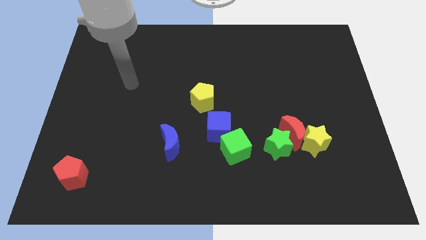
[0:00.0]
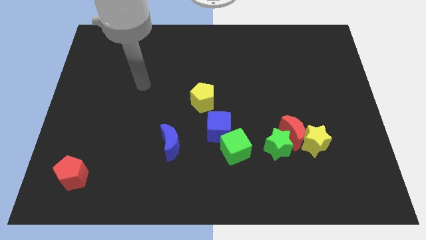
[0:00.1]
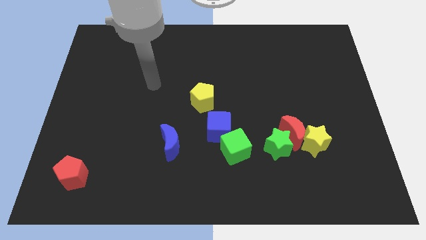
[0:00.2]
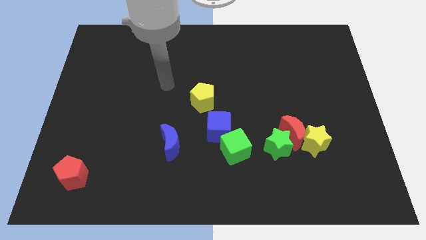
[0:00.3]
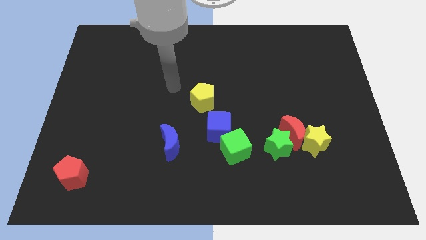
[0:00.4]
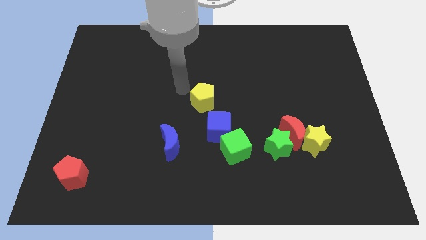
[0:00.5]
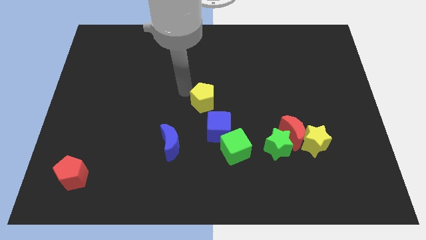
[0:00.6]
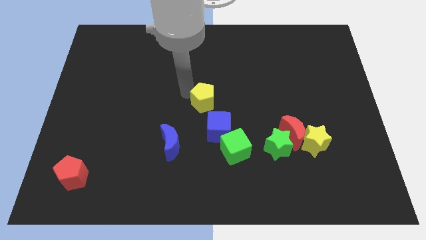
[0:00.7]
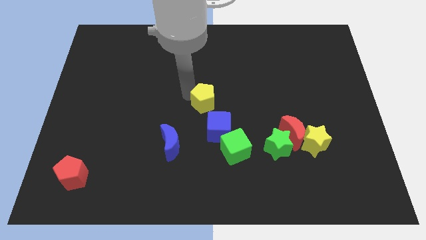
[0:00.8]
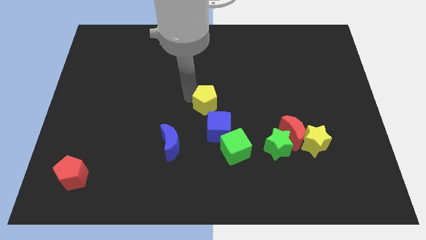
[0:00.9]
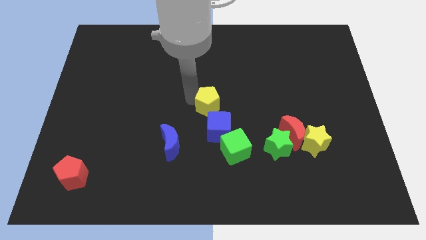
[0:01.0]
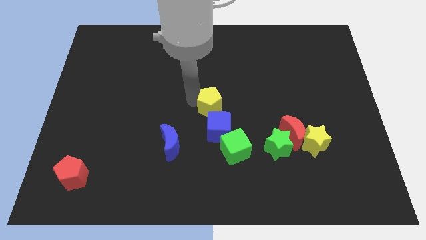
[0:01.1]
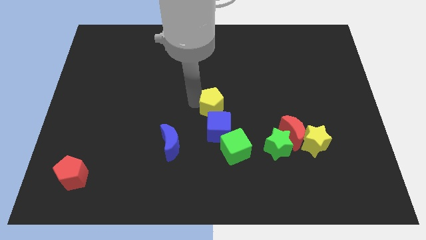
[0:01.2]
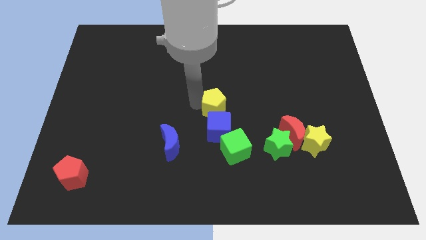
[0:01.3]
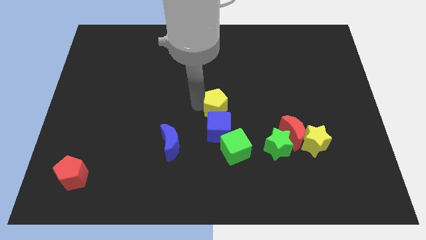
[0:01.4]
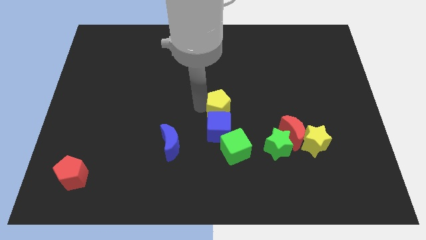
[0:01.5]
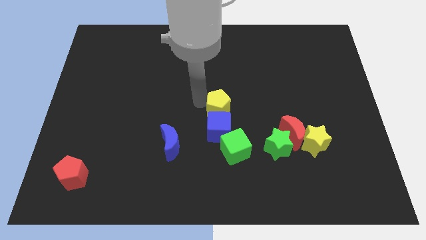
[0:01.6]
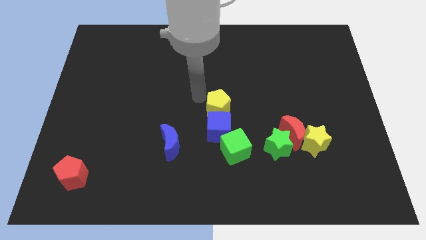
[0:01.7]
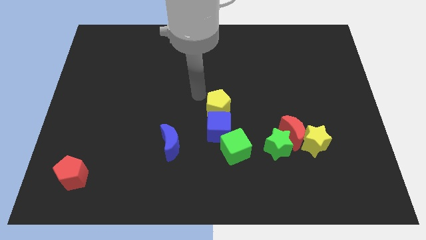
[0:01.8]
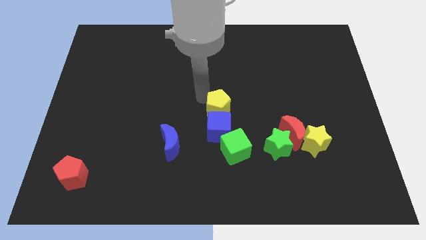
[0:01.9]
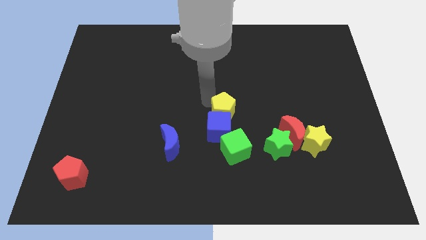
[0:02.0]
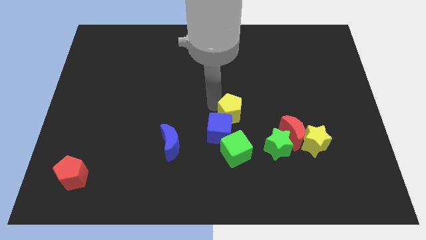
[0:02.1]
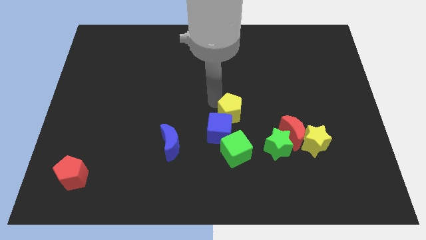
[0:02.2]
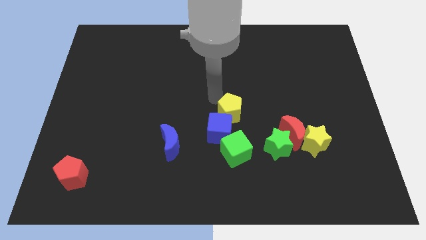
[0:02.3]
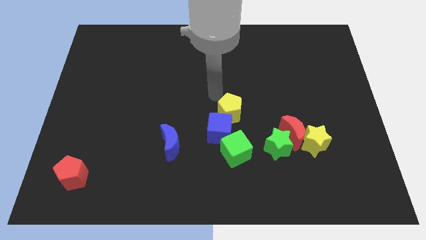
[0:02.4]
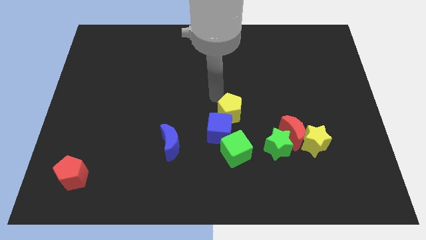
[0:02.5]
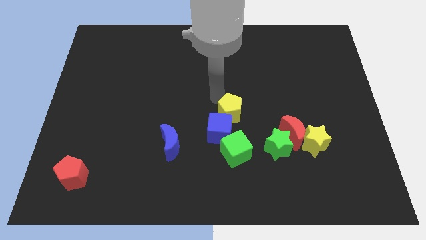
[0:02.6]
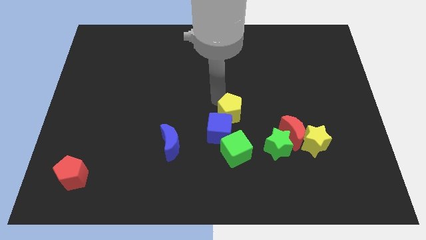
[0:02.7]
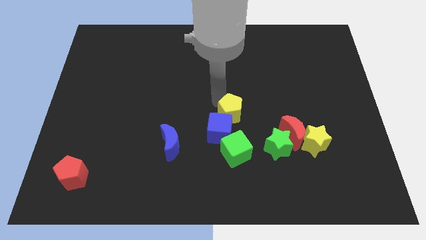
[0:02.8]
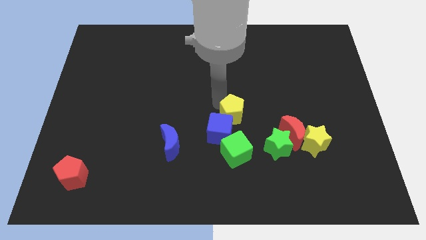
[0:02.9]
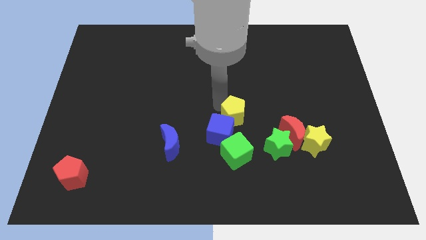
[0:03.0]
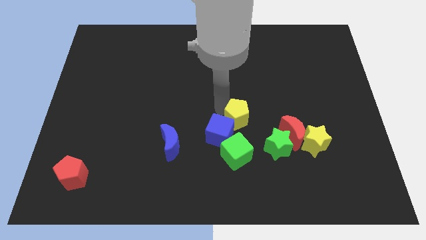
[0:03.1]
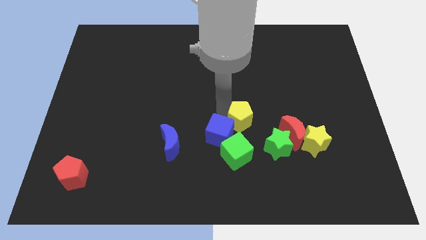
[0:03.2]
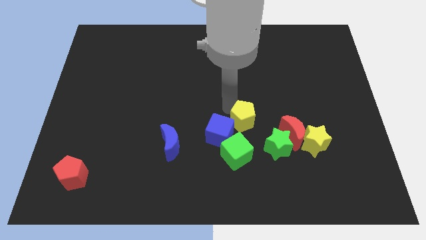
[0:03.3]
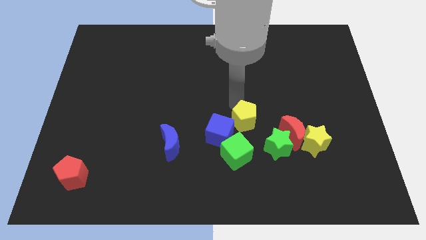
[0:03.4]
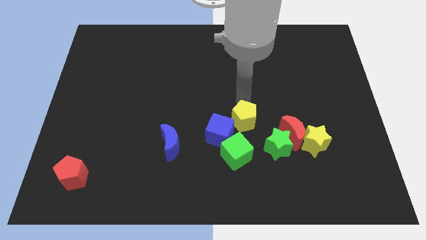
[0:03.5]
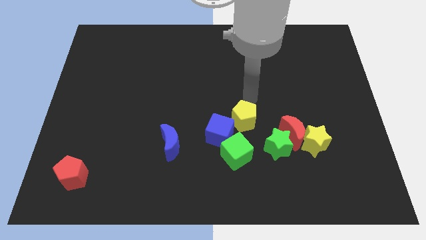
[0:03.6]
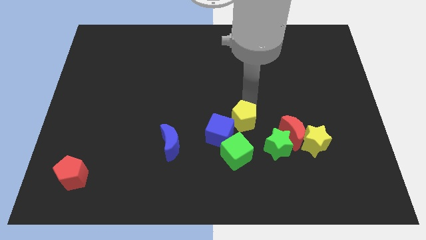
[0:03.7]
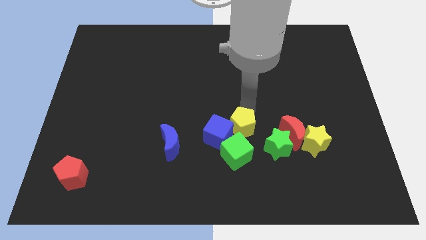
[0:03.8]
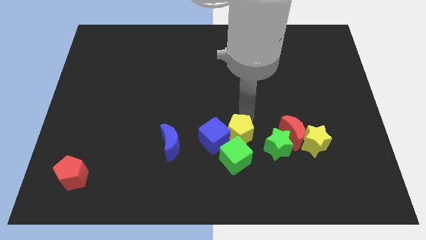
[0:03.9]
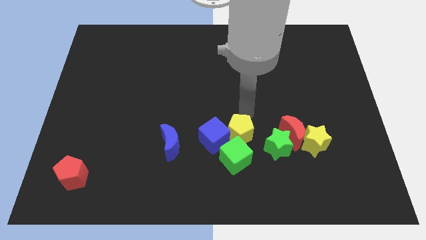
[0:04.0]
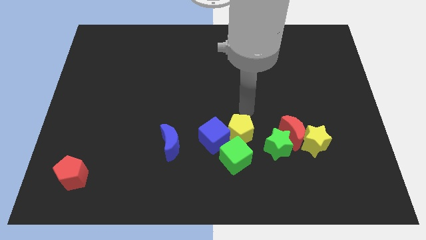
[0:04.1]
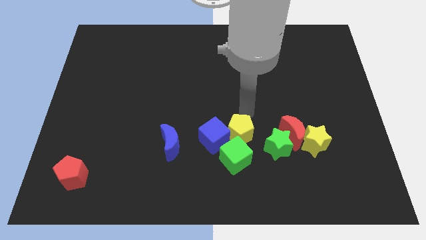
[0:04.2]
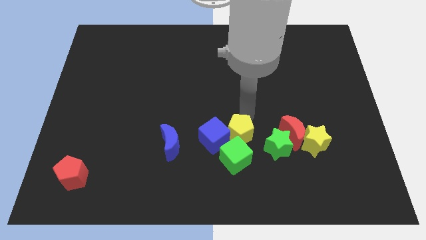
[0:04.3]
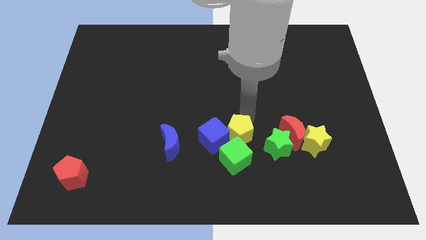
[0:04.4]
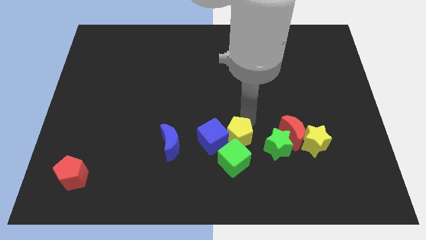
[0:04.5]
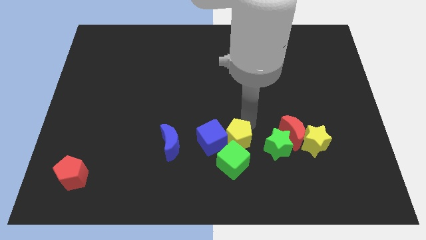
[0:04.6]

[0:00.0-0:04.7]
put the yellow pentagon next to the green cube

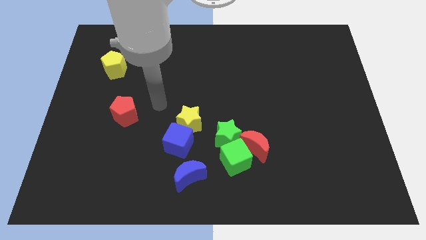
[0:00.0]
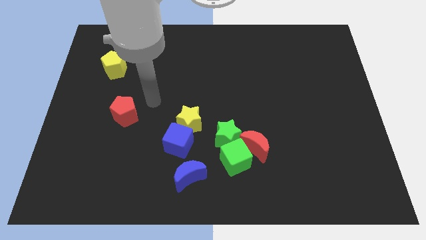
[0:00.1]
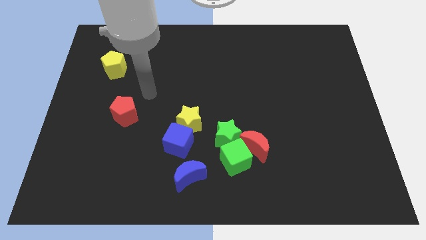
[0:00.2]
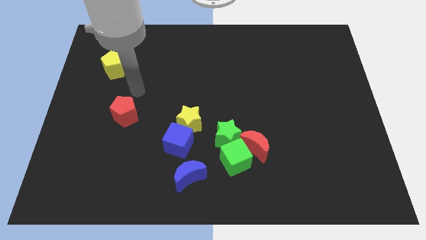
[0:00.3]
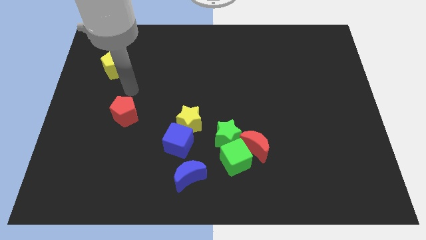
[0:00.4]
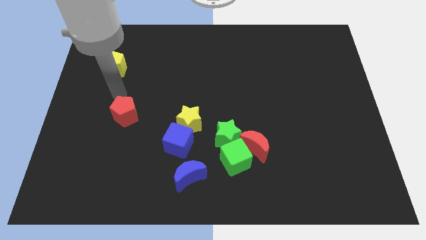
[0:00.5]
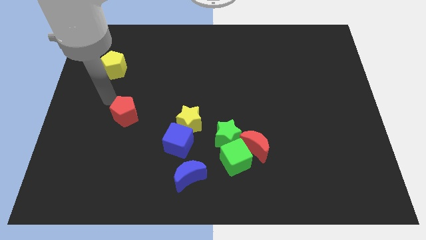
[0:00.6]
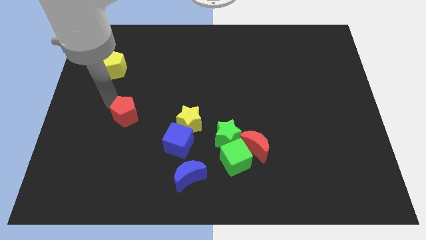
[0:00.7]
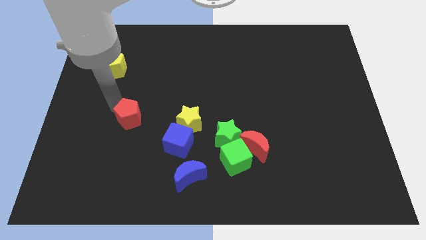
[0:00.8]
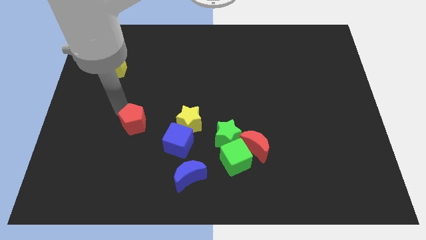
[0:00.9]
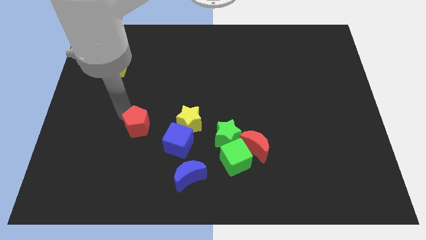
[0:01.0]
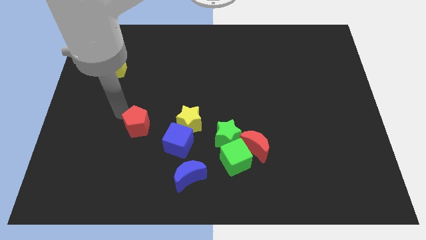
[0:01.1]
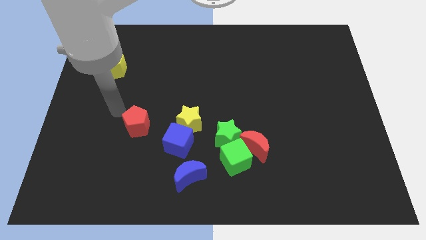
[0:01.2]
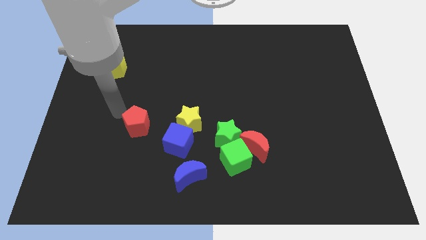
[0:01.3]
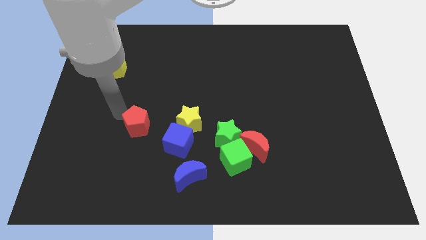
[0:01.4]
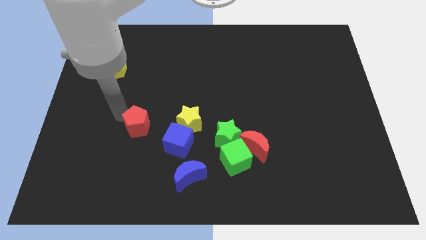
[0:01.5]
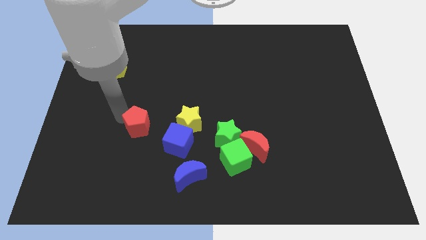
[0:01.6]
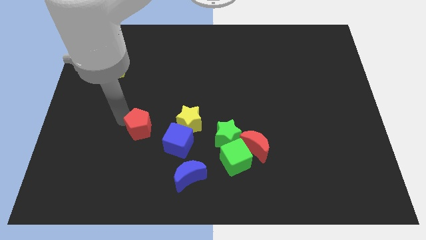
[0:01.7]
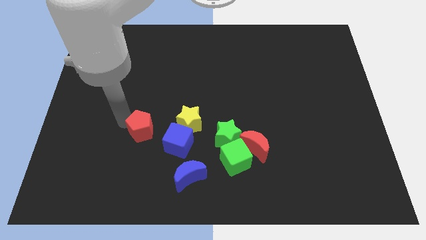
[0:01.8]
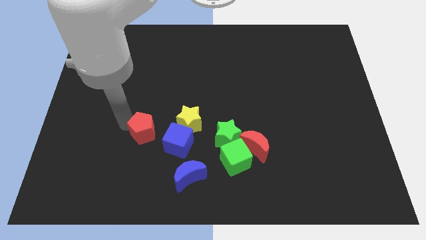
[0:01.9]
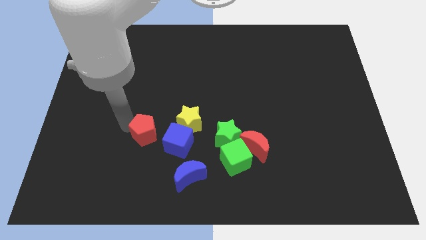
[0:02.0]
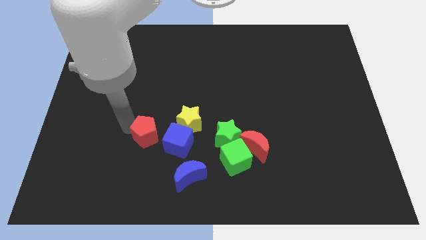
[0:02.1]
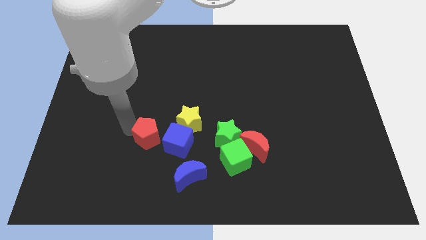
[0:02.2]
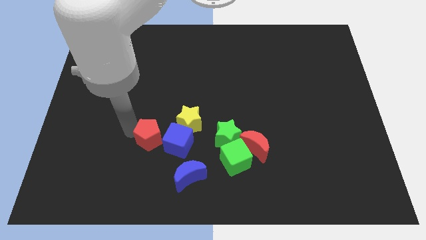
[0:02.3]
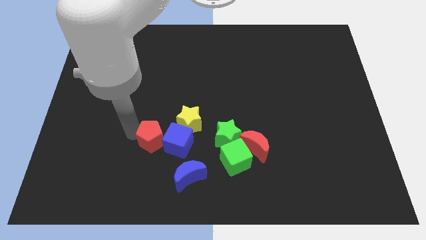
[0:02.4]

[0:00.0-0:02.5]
put the red pentagon towards the blue cube

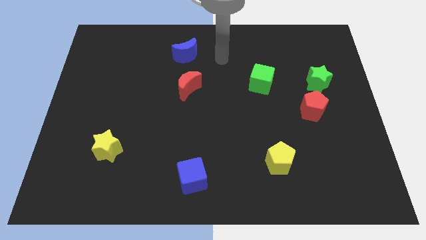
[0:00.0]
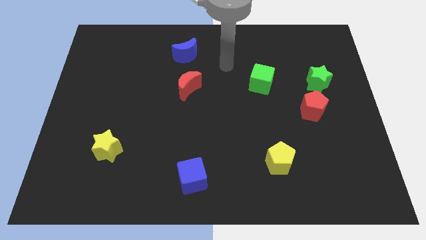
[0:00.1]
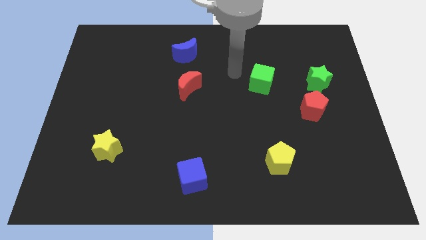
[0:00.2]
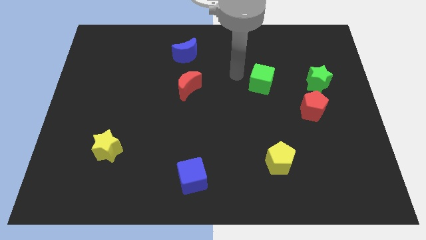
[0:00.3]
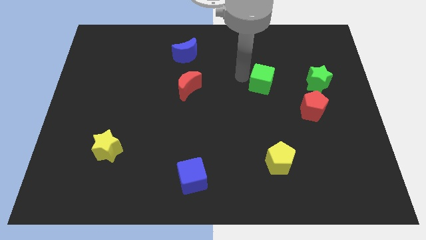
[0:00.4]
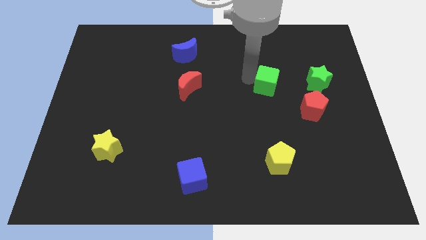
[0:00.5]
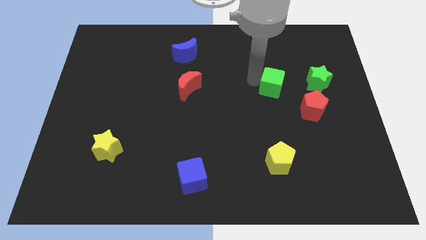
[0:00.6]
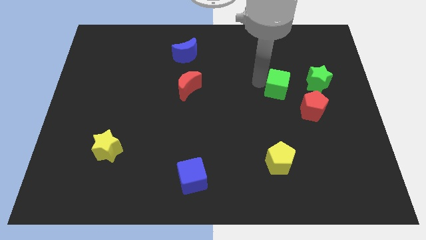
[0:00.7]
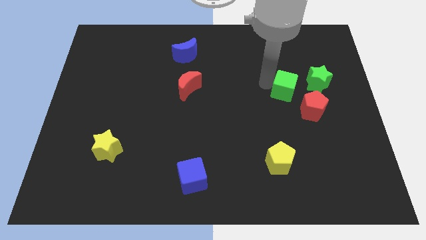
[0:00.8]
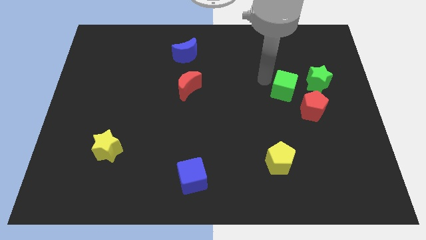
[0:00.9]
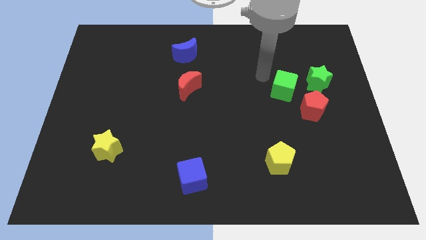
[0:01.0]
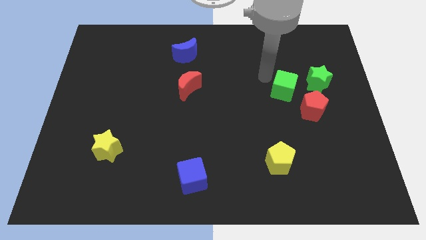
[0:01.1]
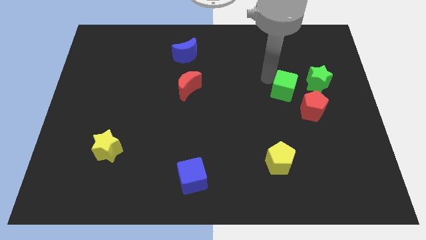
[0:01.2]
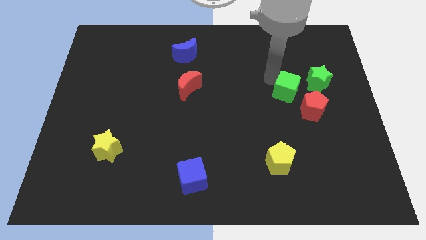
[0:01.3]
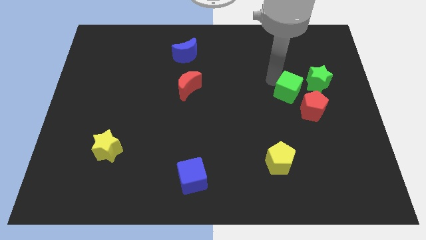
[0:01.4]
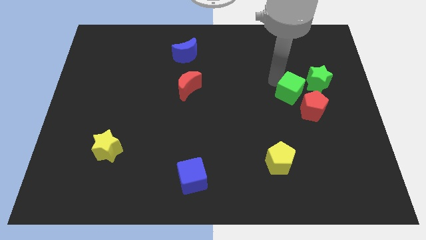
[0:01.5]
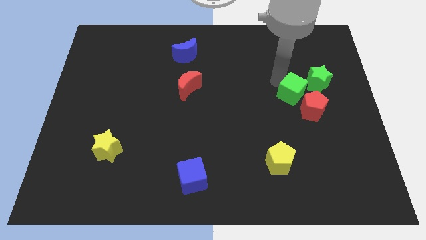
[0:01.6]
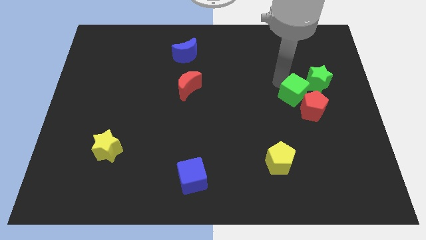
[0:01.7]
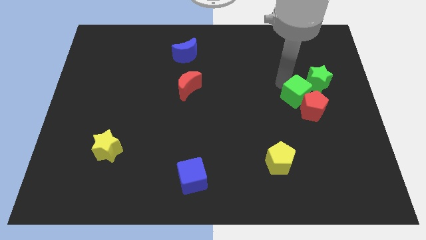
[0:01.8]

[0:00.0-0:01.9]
move the green cube to the red pentagon
